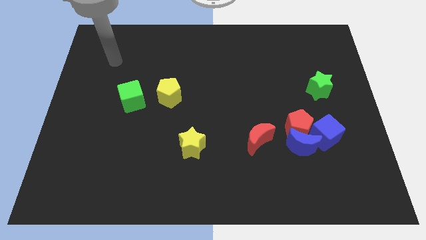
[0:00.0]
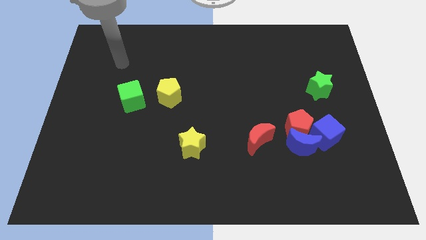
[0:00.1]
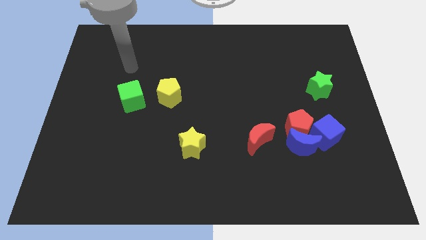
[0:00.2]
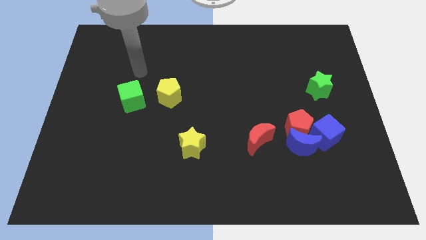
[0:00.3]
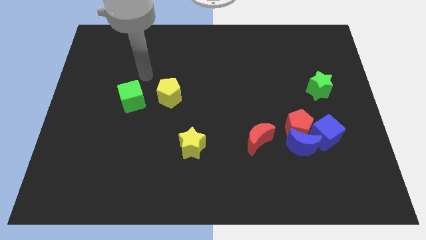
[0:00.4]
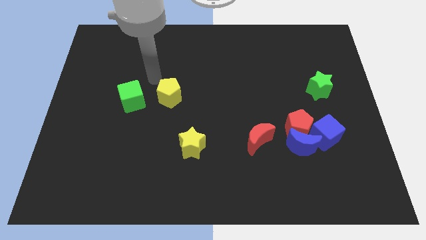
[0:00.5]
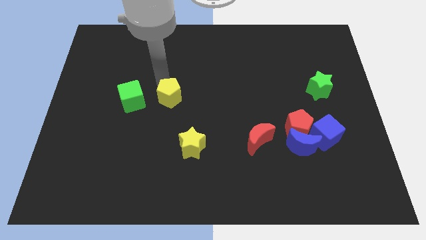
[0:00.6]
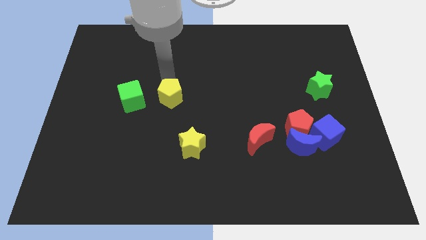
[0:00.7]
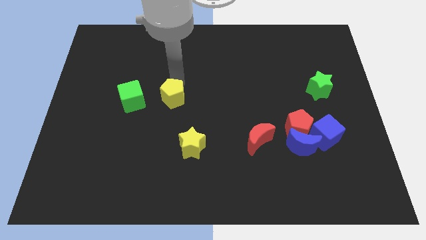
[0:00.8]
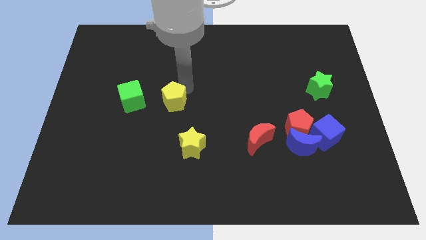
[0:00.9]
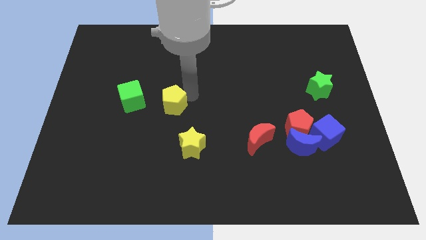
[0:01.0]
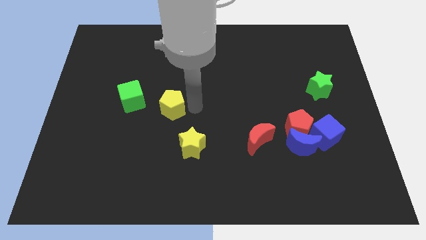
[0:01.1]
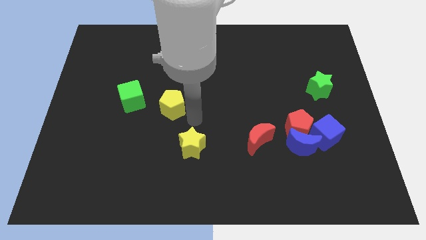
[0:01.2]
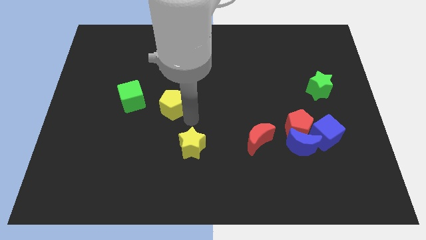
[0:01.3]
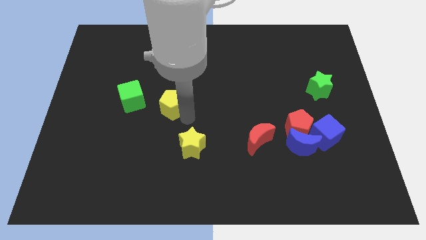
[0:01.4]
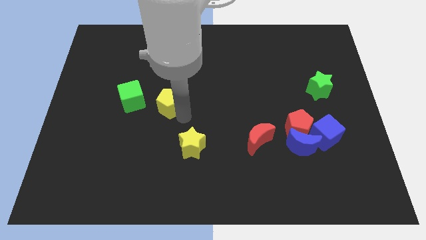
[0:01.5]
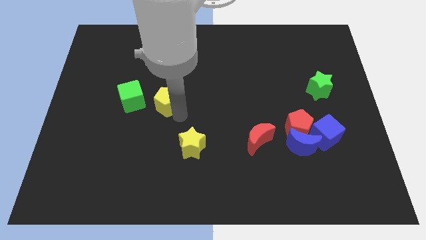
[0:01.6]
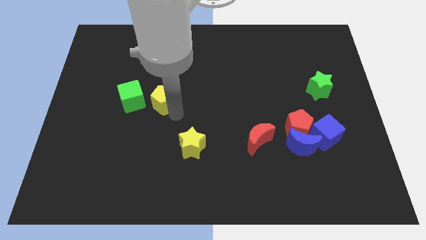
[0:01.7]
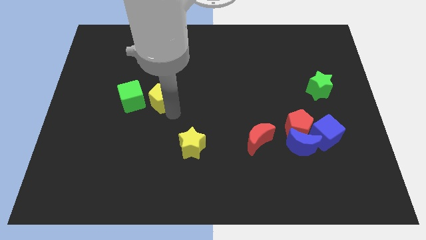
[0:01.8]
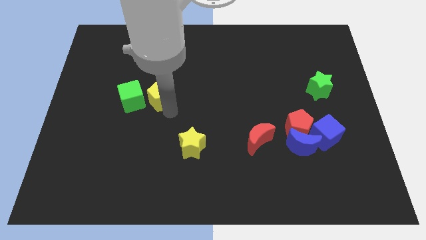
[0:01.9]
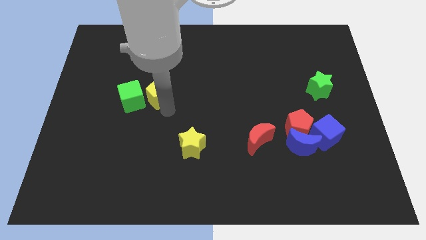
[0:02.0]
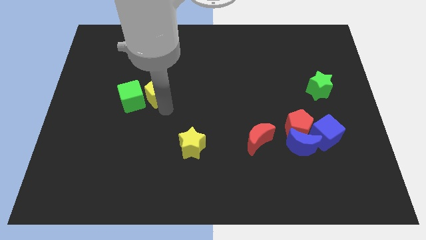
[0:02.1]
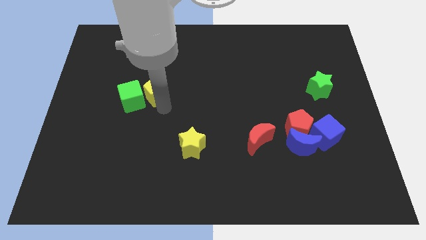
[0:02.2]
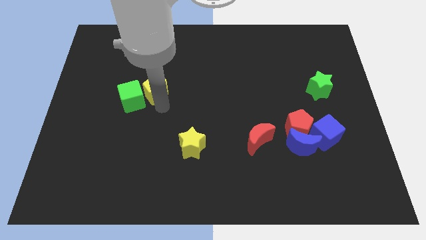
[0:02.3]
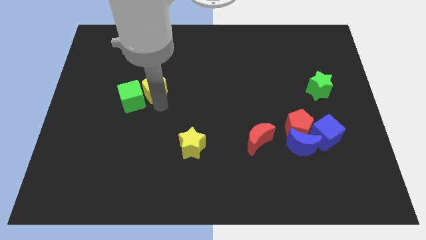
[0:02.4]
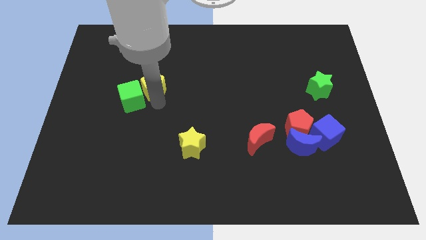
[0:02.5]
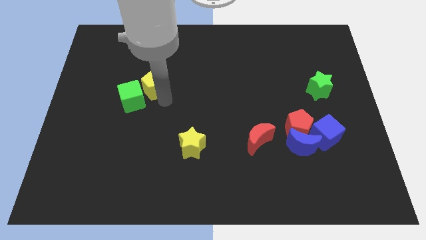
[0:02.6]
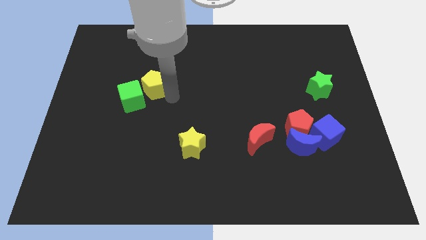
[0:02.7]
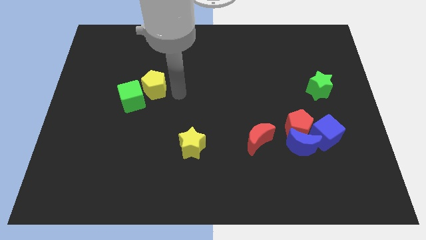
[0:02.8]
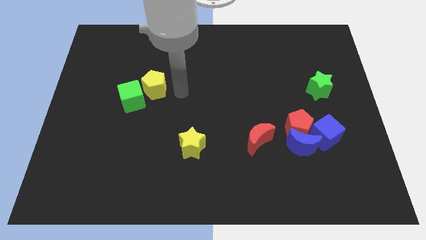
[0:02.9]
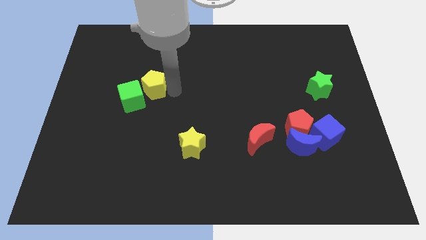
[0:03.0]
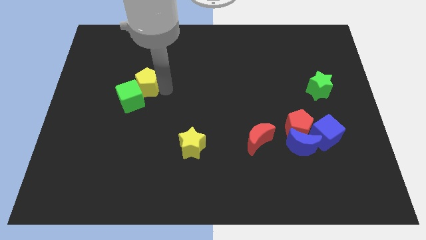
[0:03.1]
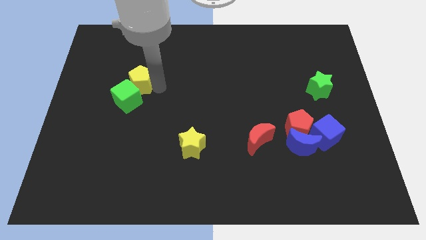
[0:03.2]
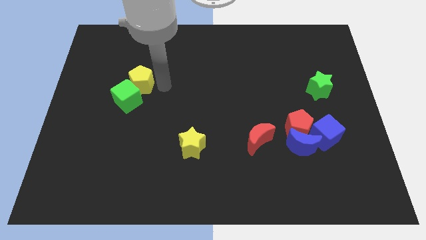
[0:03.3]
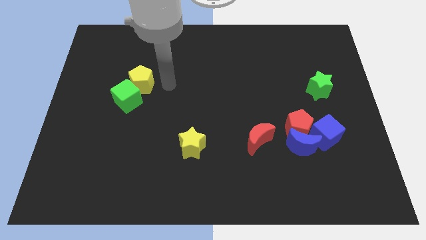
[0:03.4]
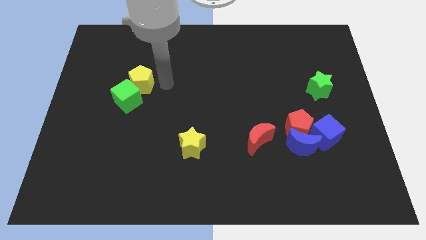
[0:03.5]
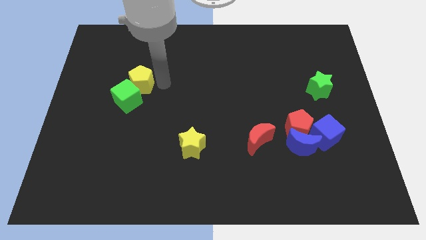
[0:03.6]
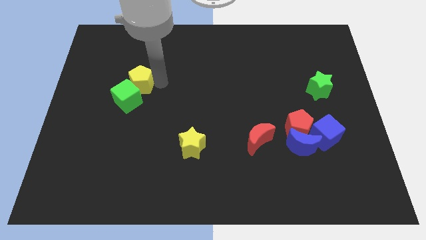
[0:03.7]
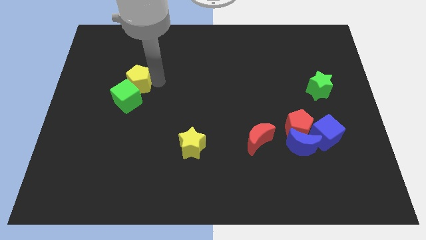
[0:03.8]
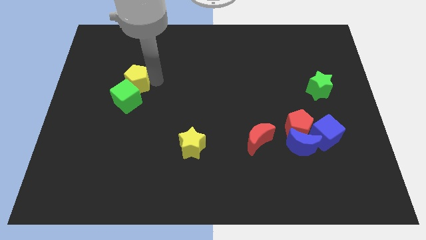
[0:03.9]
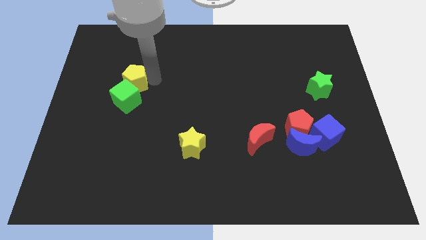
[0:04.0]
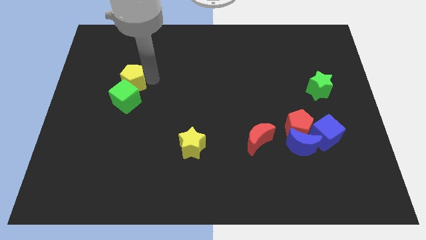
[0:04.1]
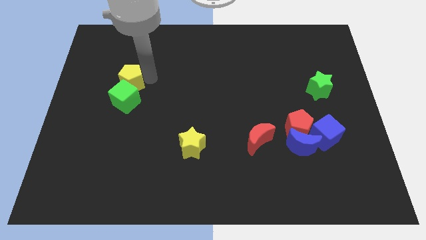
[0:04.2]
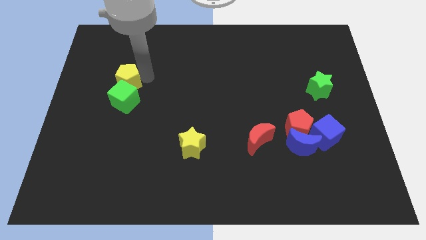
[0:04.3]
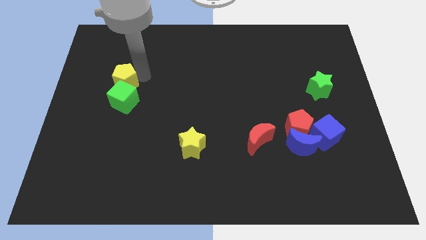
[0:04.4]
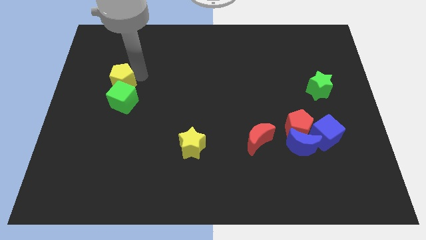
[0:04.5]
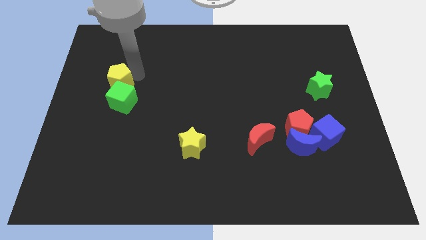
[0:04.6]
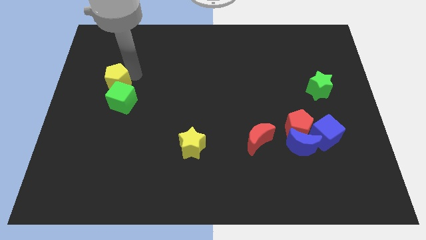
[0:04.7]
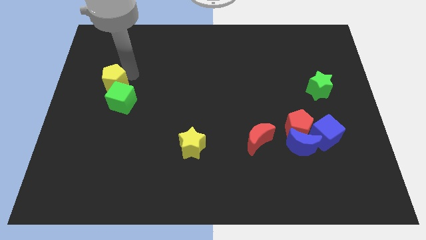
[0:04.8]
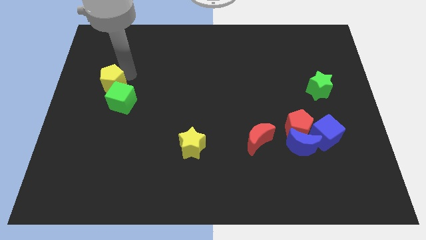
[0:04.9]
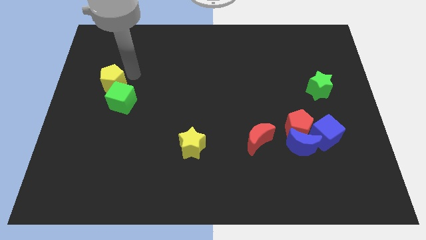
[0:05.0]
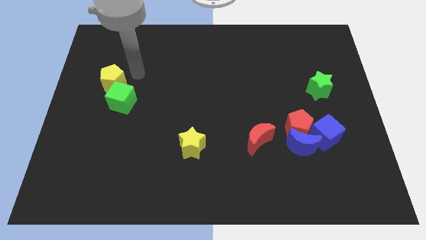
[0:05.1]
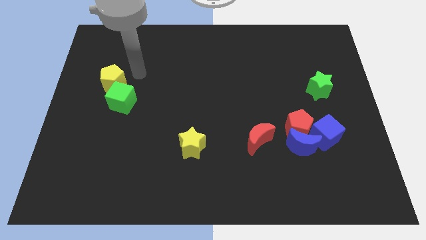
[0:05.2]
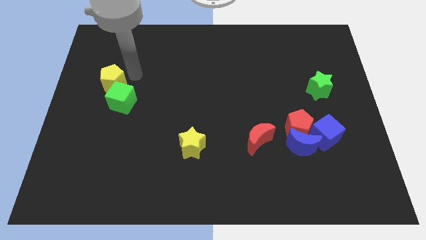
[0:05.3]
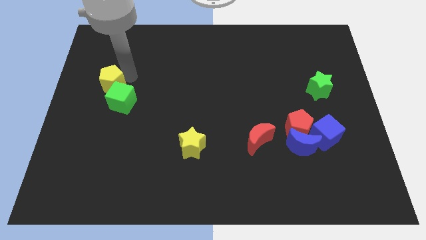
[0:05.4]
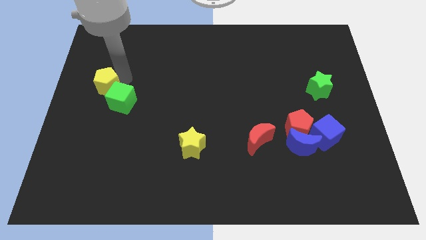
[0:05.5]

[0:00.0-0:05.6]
push the yellow pentagon to the left side of the board

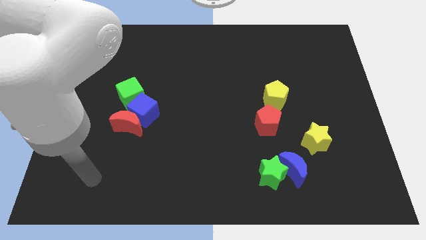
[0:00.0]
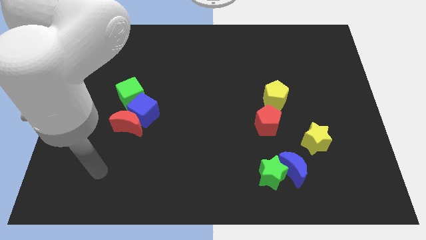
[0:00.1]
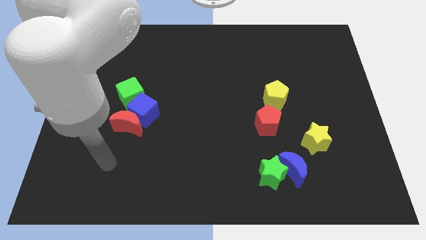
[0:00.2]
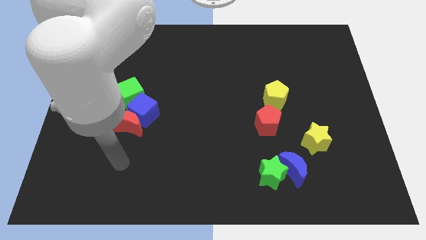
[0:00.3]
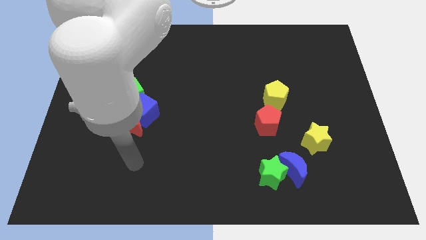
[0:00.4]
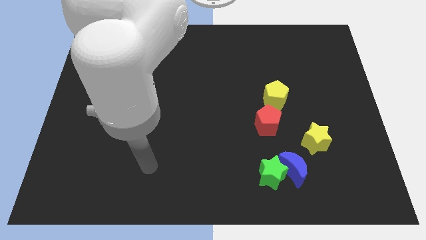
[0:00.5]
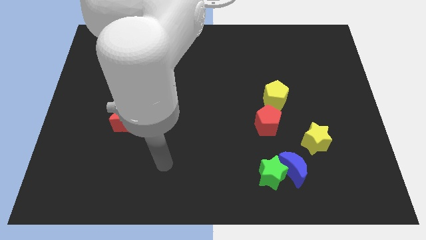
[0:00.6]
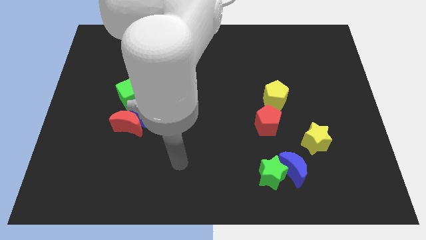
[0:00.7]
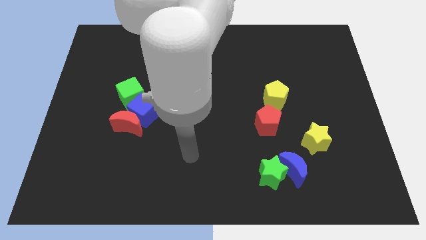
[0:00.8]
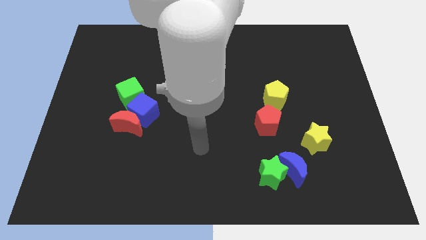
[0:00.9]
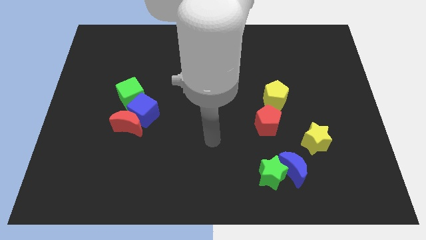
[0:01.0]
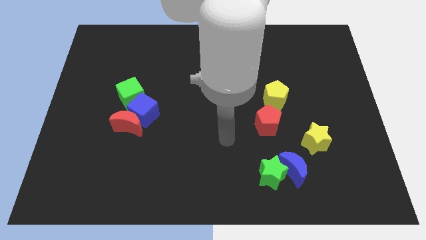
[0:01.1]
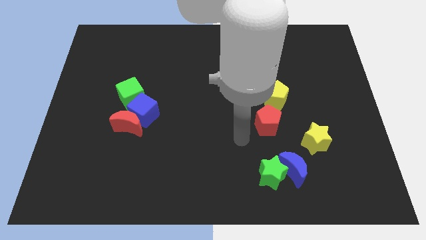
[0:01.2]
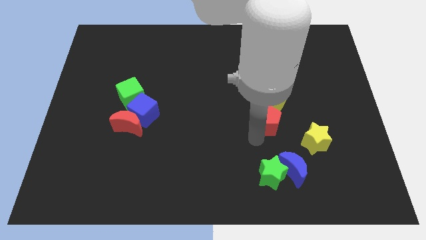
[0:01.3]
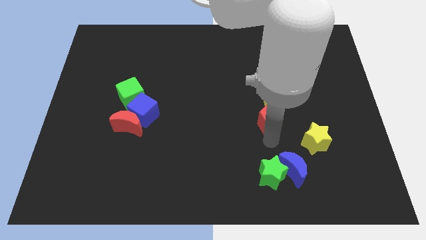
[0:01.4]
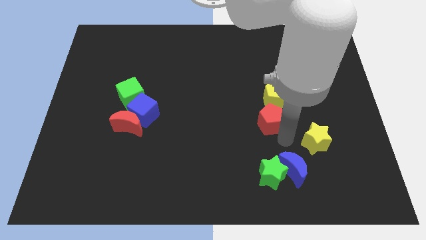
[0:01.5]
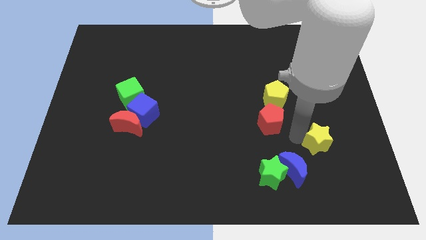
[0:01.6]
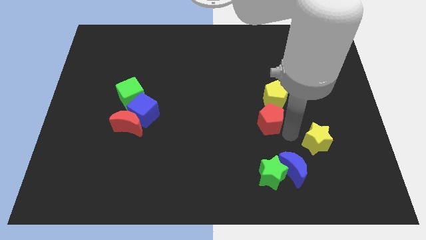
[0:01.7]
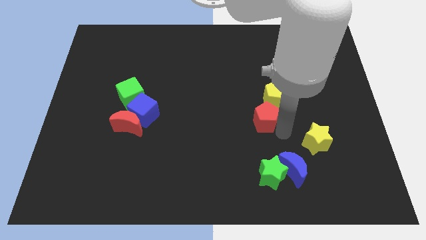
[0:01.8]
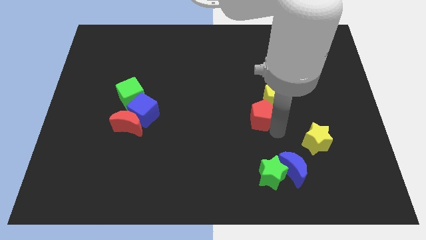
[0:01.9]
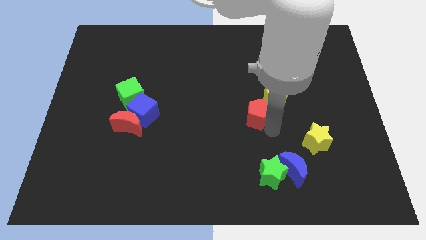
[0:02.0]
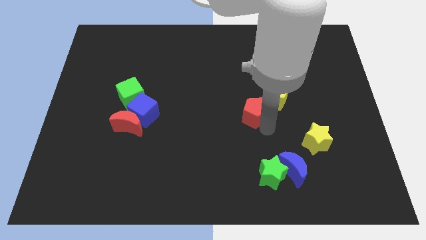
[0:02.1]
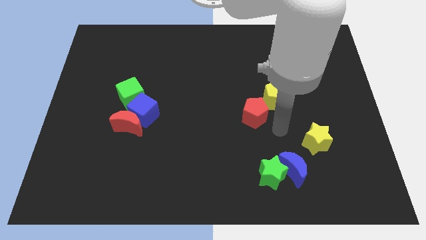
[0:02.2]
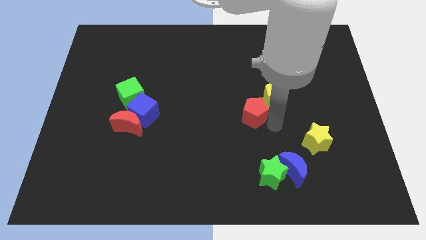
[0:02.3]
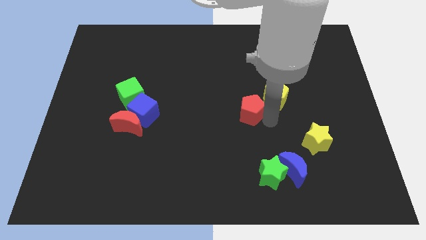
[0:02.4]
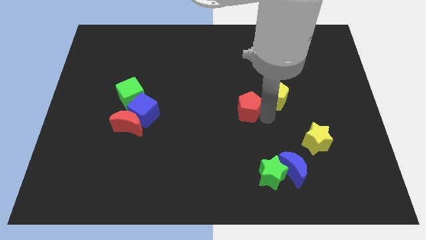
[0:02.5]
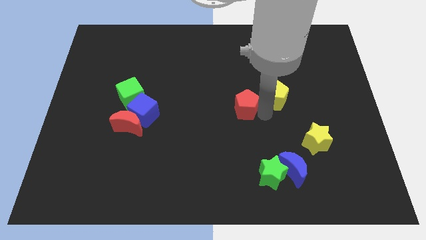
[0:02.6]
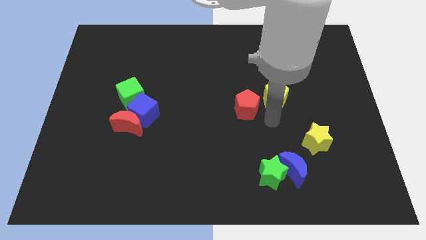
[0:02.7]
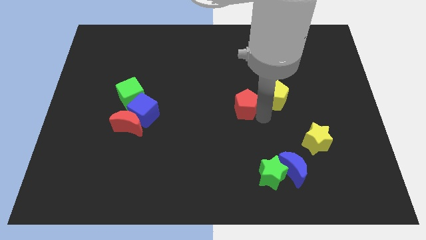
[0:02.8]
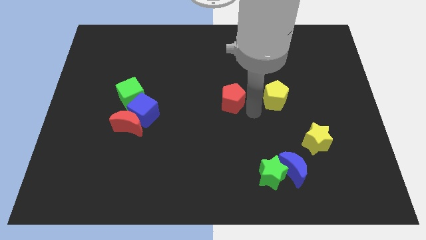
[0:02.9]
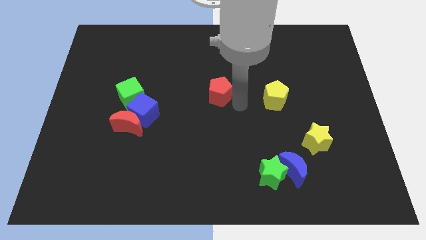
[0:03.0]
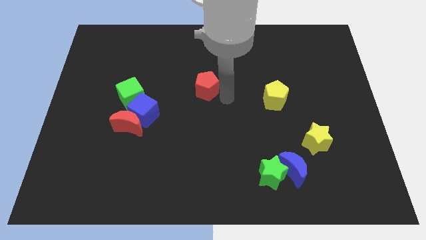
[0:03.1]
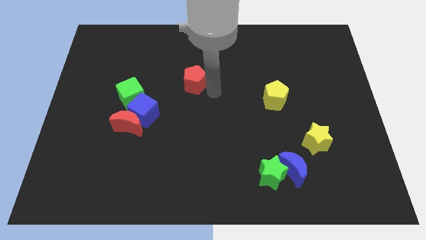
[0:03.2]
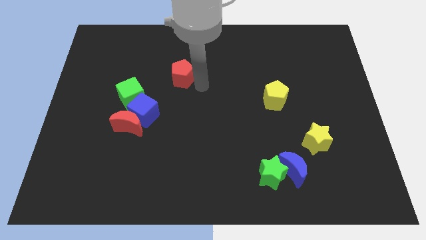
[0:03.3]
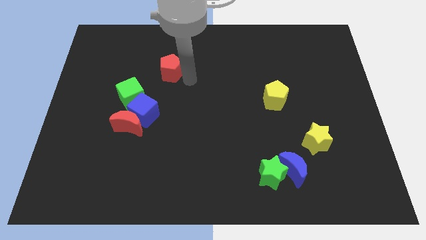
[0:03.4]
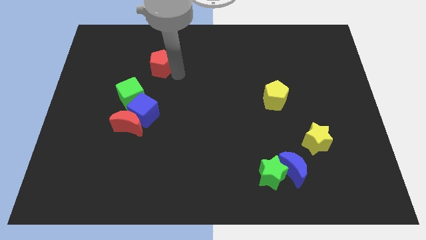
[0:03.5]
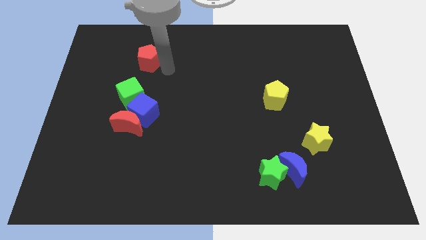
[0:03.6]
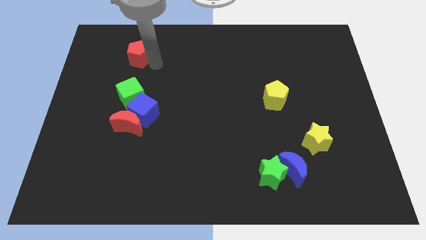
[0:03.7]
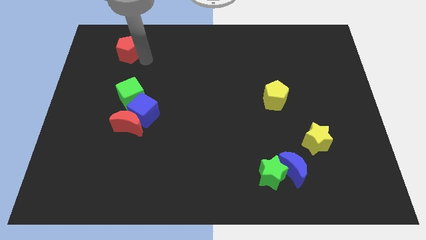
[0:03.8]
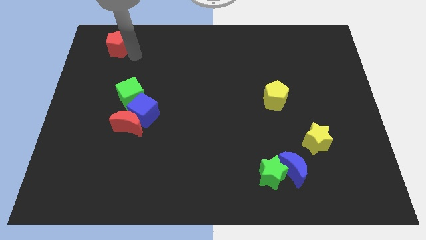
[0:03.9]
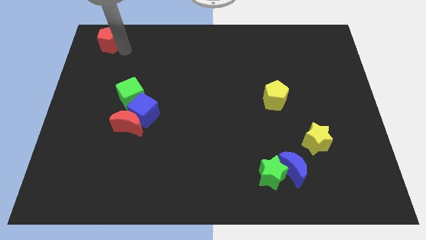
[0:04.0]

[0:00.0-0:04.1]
move the red pentagon to the upper left corner
